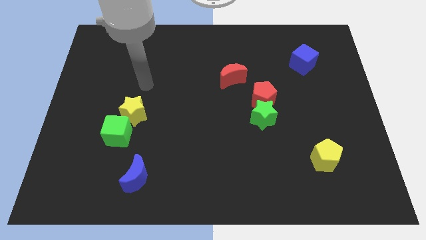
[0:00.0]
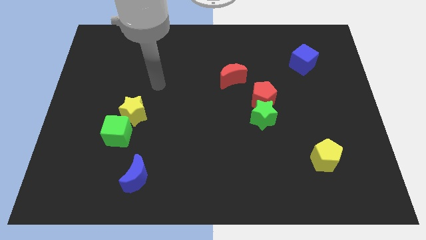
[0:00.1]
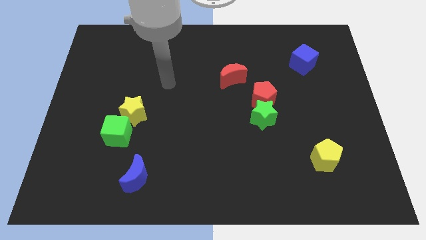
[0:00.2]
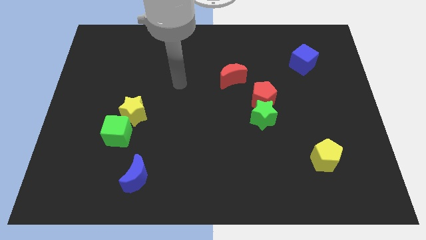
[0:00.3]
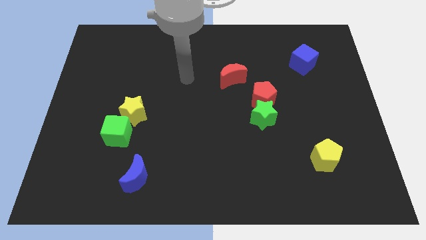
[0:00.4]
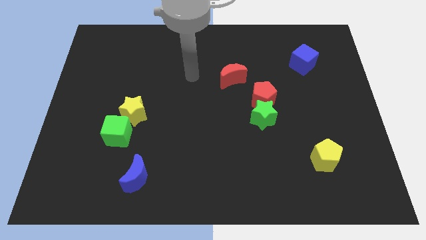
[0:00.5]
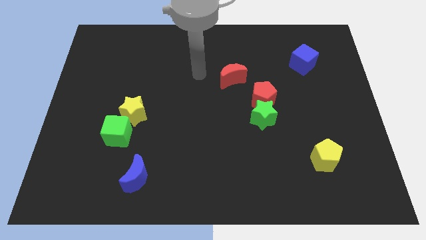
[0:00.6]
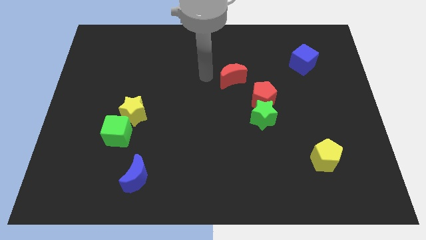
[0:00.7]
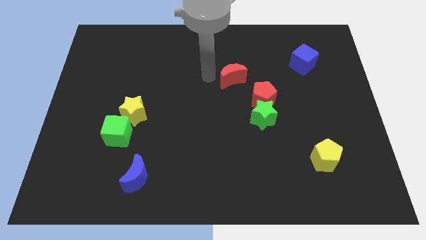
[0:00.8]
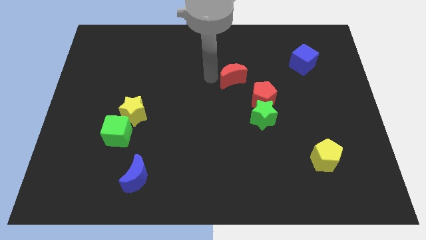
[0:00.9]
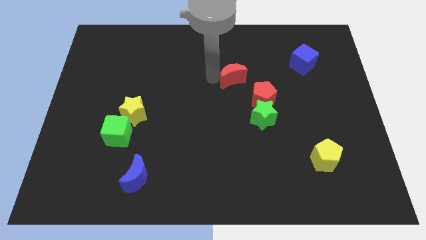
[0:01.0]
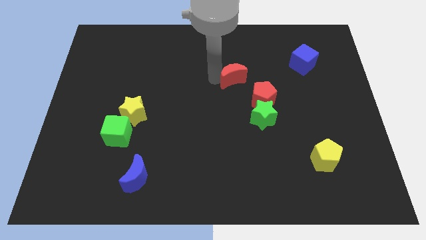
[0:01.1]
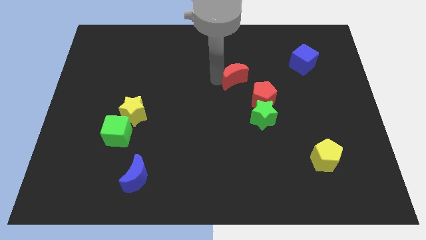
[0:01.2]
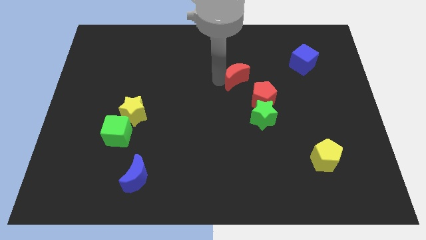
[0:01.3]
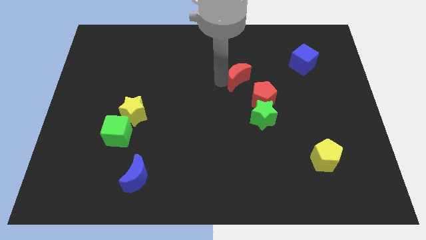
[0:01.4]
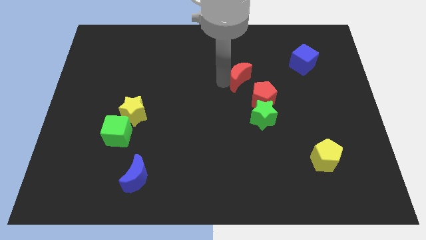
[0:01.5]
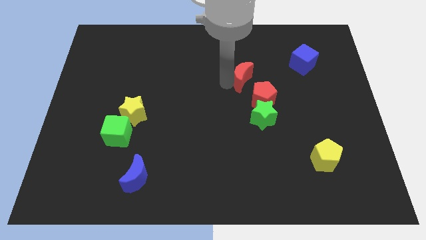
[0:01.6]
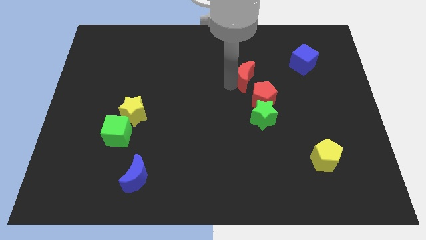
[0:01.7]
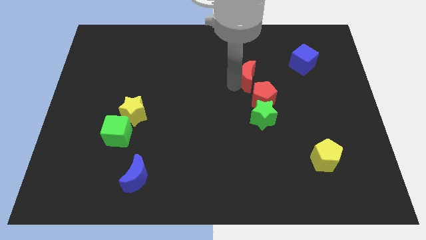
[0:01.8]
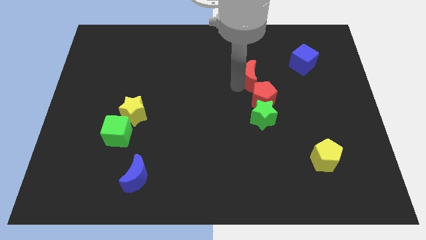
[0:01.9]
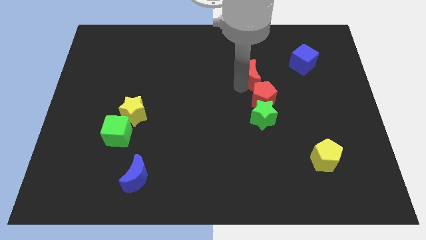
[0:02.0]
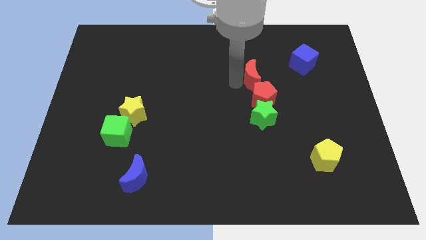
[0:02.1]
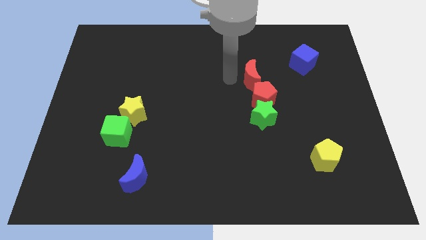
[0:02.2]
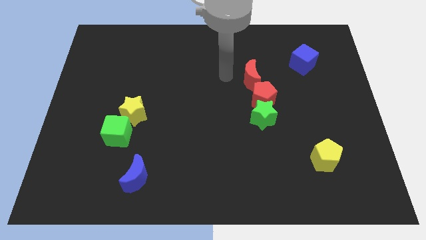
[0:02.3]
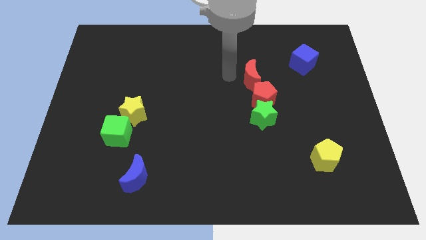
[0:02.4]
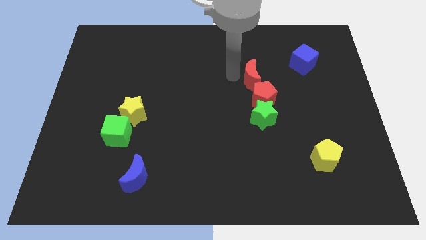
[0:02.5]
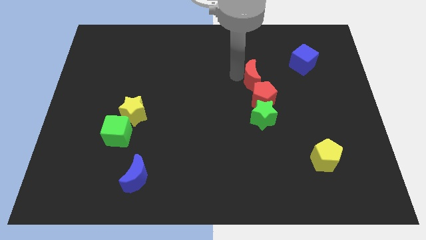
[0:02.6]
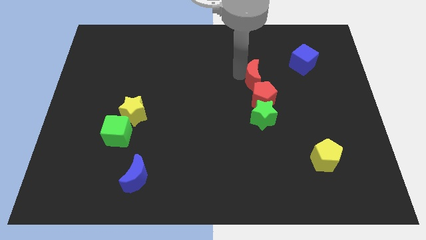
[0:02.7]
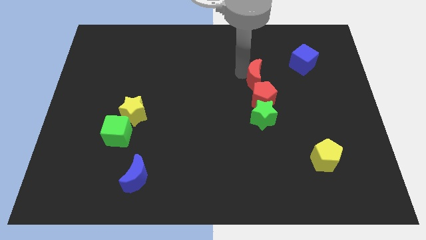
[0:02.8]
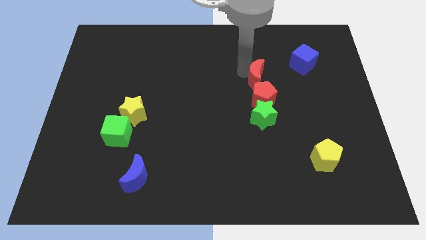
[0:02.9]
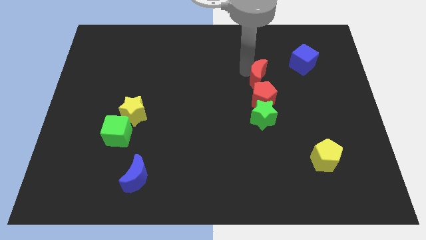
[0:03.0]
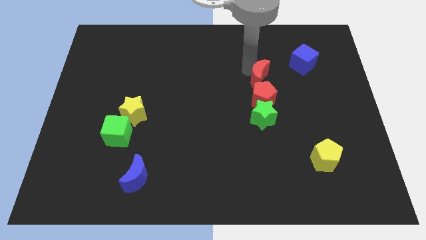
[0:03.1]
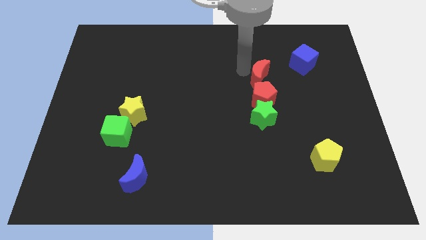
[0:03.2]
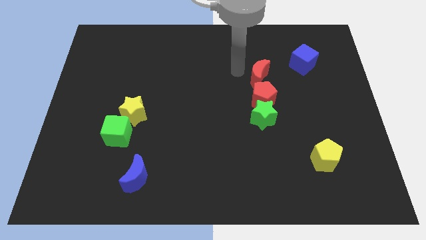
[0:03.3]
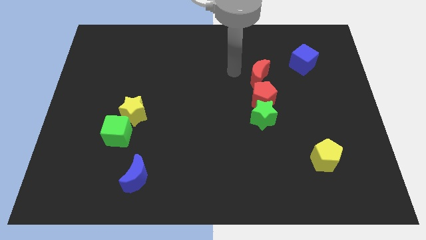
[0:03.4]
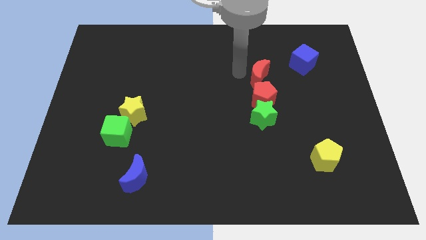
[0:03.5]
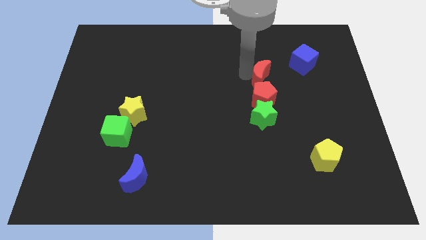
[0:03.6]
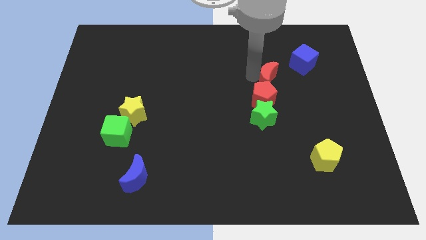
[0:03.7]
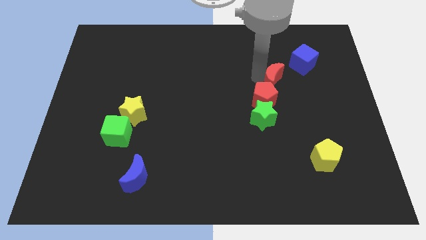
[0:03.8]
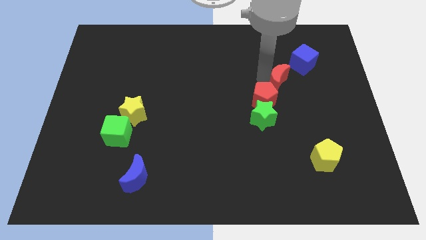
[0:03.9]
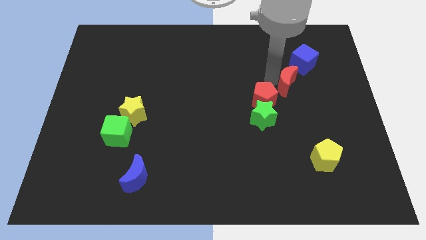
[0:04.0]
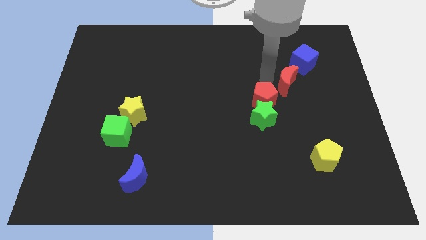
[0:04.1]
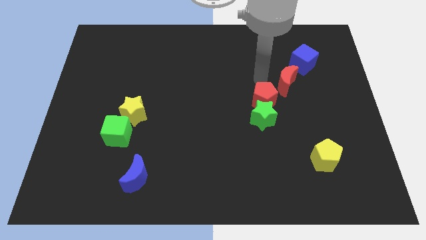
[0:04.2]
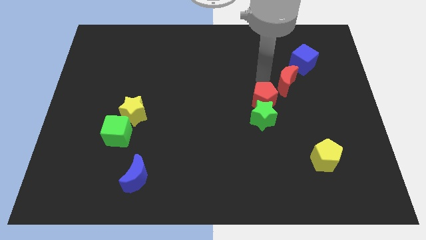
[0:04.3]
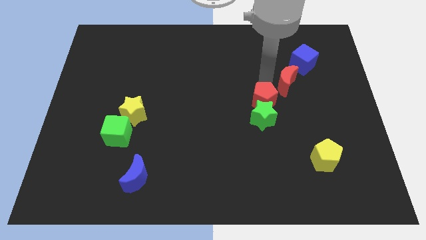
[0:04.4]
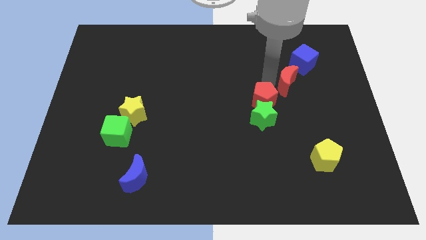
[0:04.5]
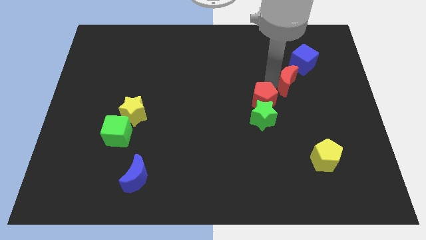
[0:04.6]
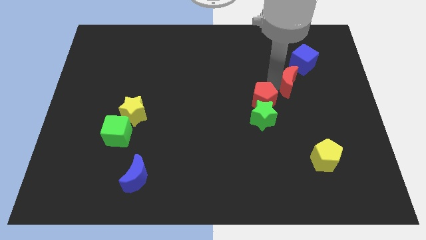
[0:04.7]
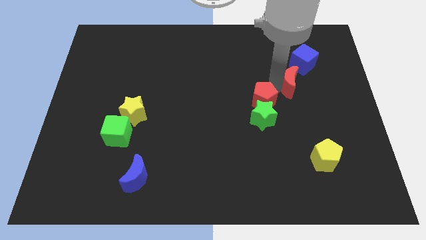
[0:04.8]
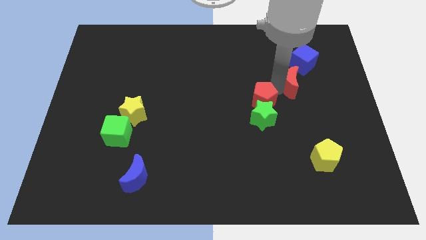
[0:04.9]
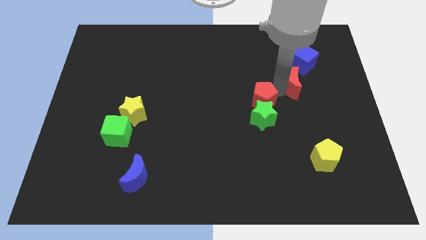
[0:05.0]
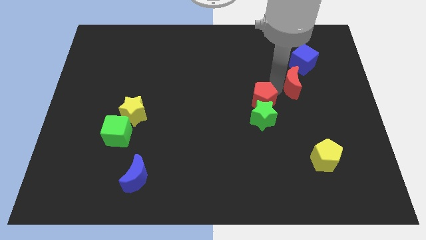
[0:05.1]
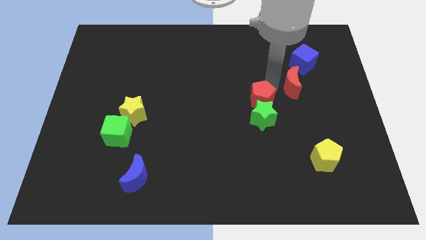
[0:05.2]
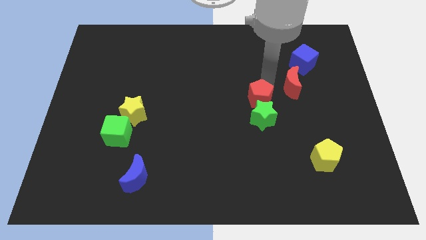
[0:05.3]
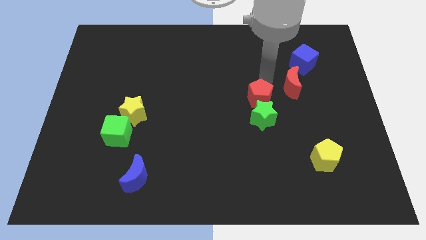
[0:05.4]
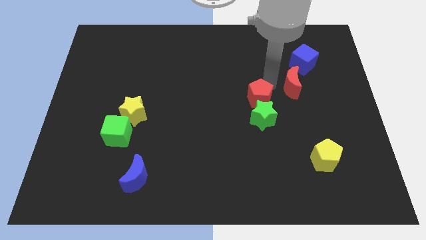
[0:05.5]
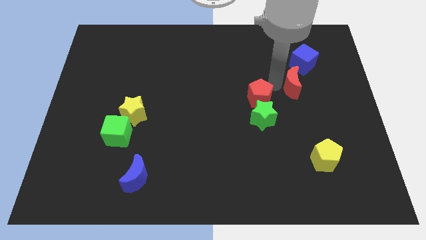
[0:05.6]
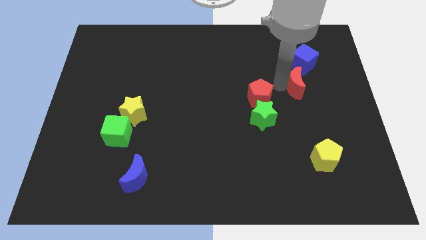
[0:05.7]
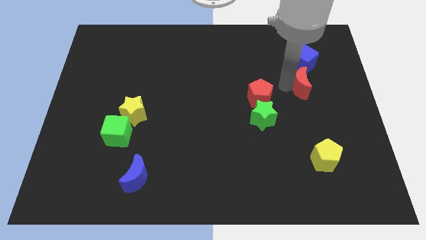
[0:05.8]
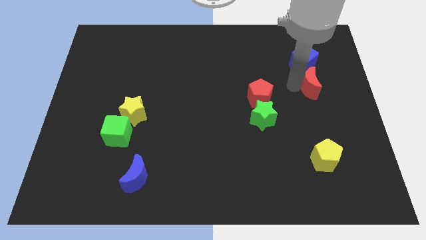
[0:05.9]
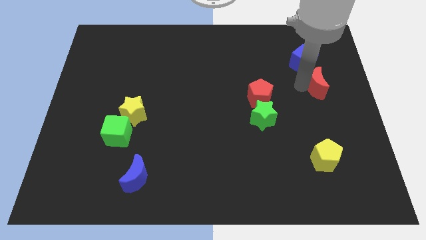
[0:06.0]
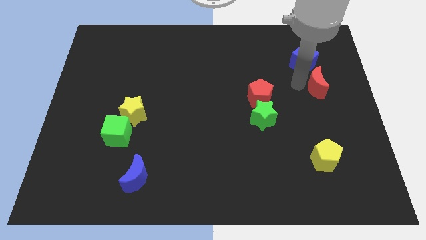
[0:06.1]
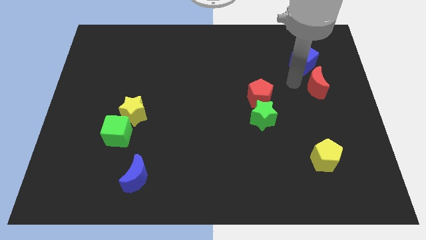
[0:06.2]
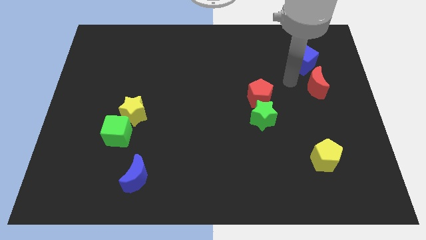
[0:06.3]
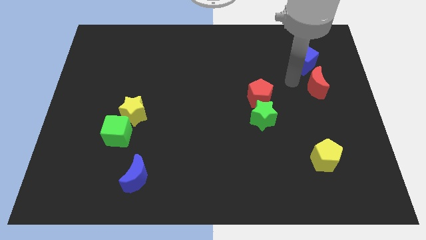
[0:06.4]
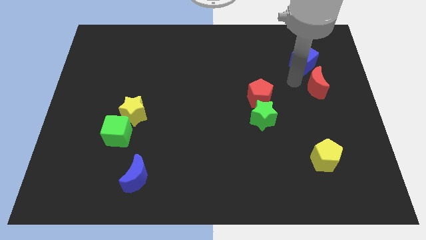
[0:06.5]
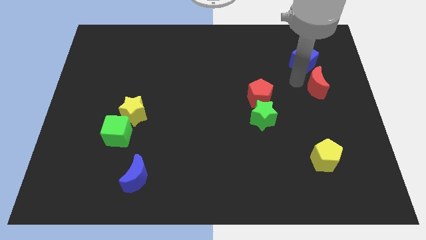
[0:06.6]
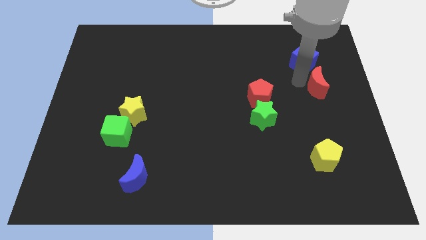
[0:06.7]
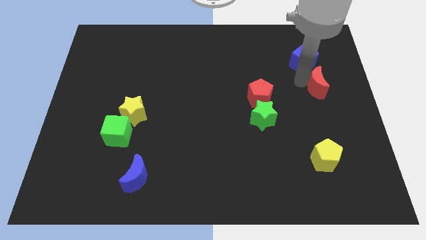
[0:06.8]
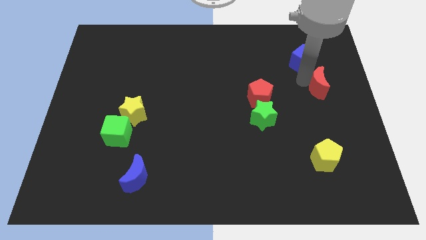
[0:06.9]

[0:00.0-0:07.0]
move the red moon to the center right
